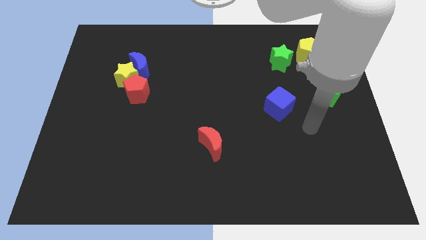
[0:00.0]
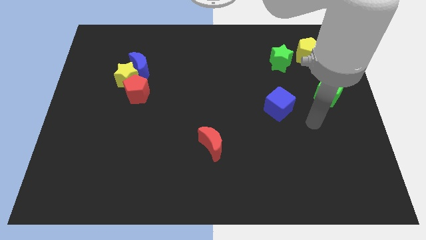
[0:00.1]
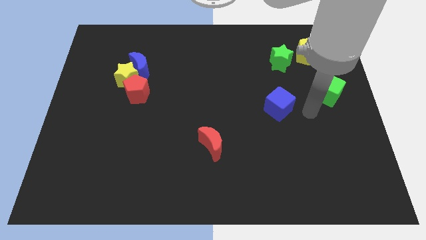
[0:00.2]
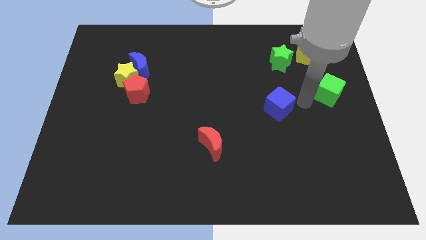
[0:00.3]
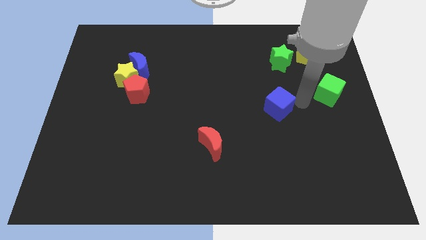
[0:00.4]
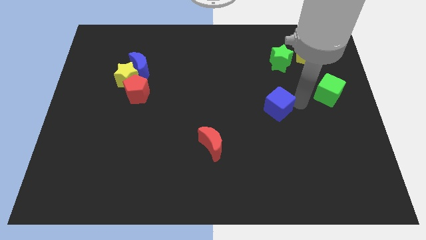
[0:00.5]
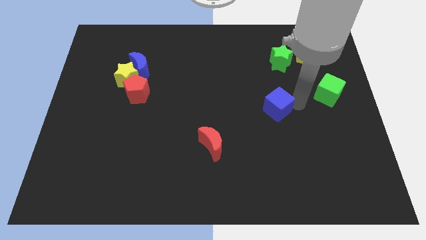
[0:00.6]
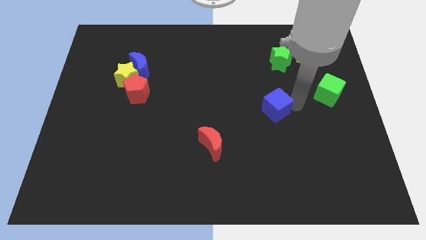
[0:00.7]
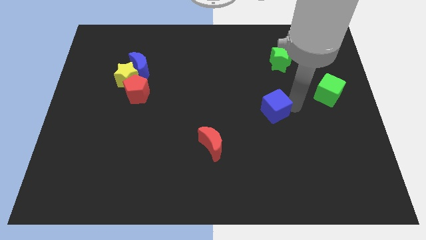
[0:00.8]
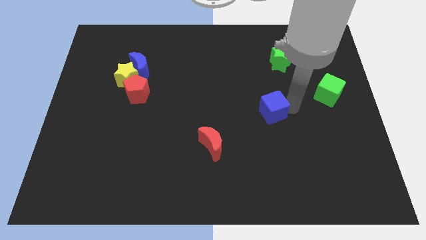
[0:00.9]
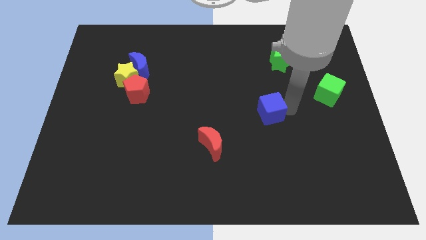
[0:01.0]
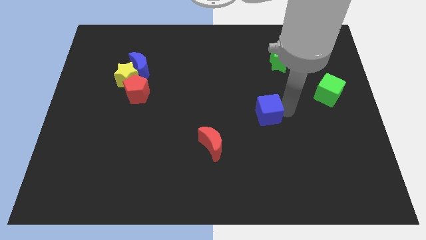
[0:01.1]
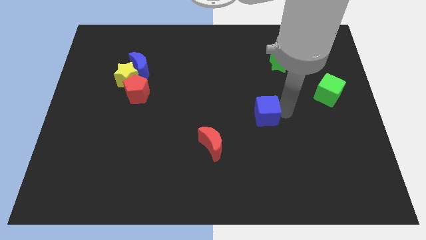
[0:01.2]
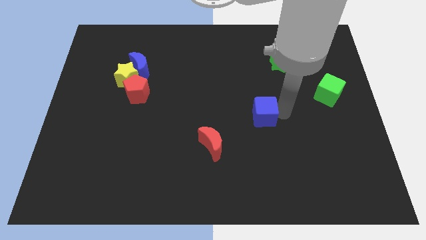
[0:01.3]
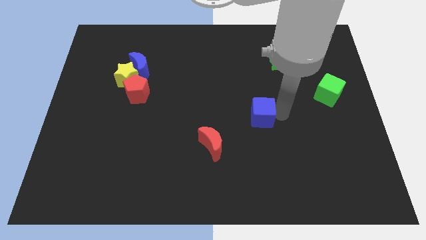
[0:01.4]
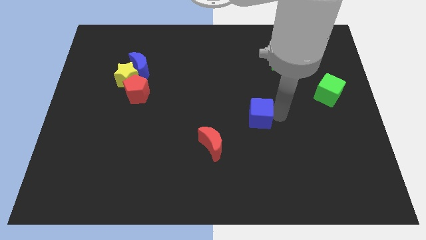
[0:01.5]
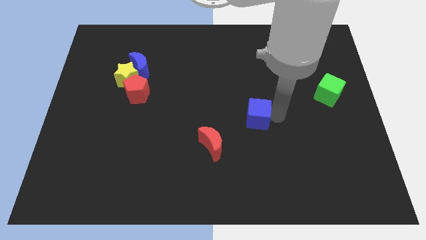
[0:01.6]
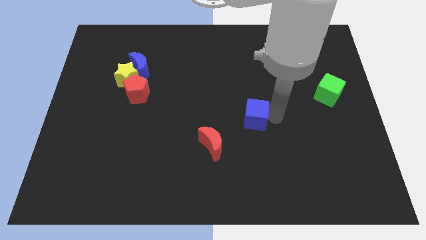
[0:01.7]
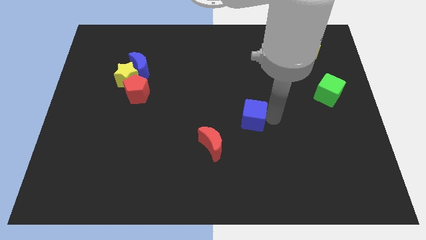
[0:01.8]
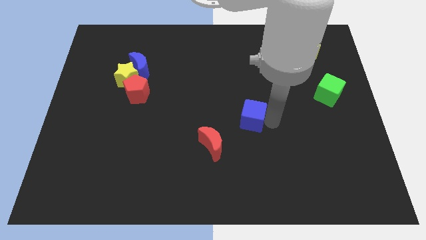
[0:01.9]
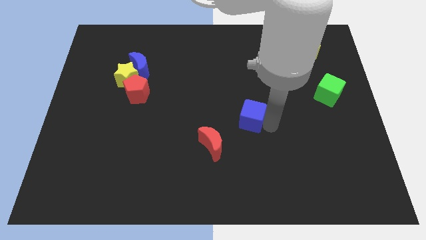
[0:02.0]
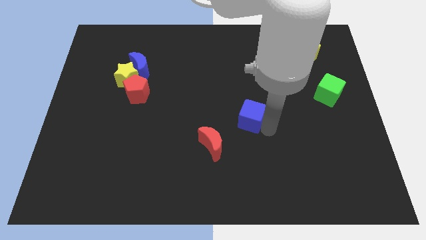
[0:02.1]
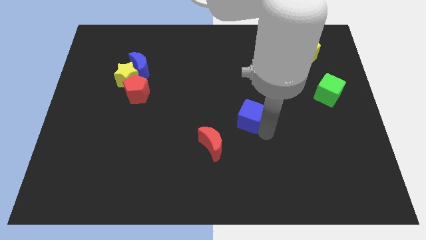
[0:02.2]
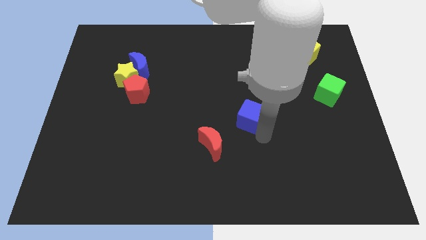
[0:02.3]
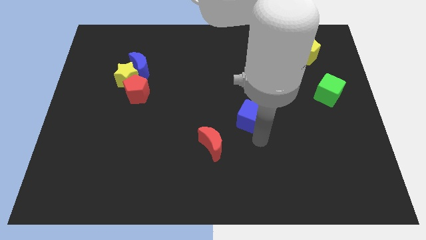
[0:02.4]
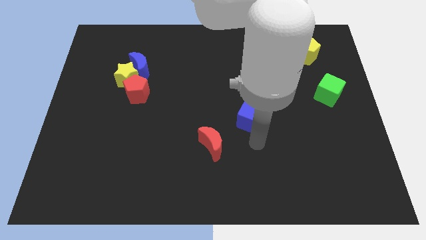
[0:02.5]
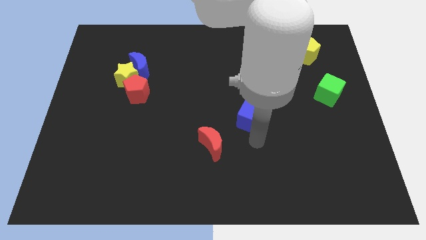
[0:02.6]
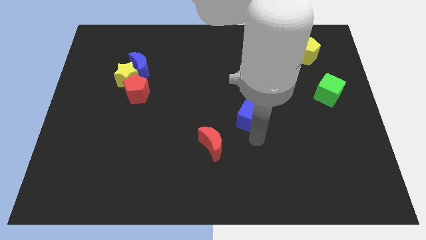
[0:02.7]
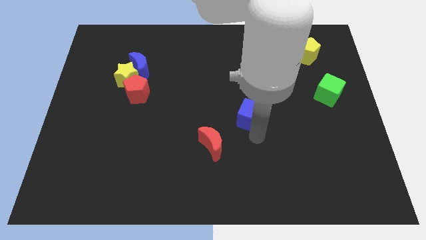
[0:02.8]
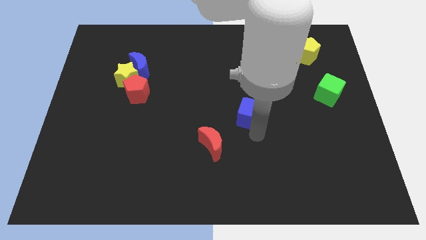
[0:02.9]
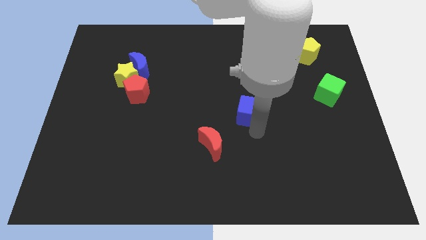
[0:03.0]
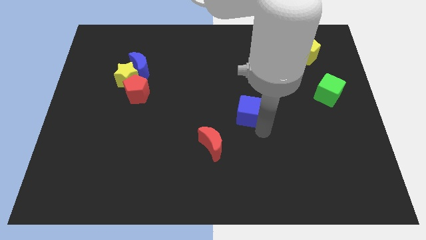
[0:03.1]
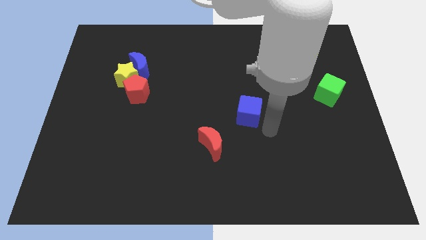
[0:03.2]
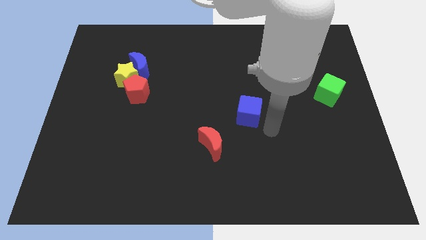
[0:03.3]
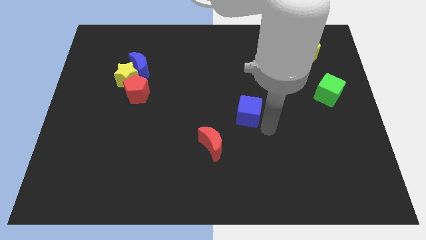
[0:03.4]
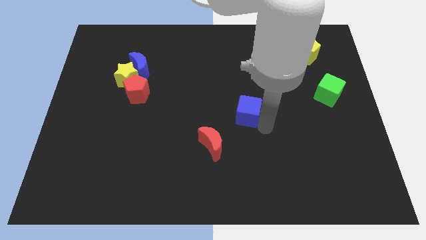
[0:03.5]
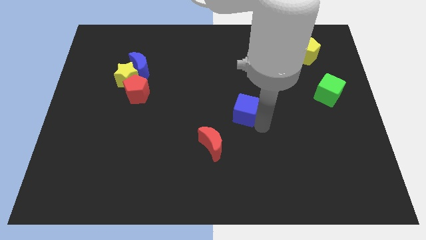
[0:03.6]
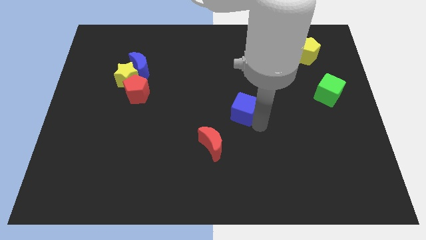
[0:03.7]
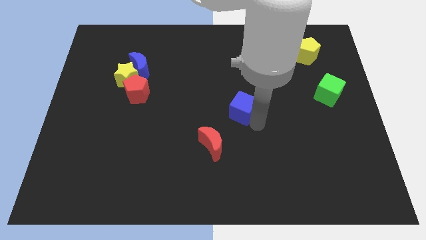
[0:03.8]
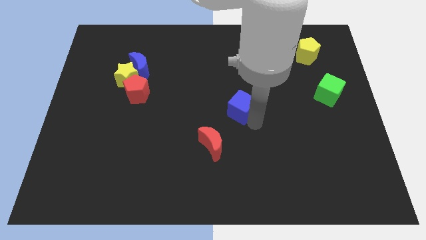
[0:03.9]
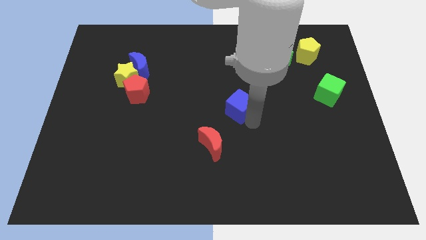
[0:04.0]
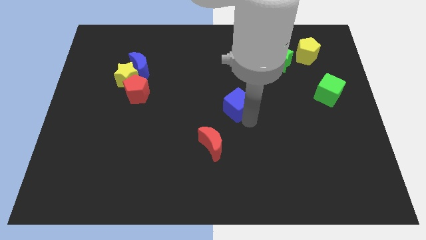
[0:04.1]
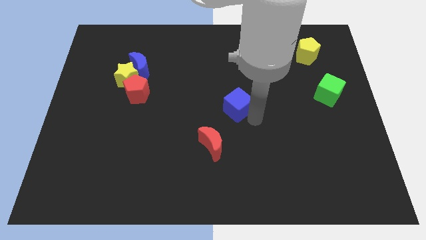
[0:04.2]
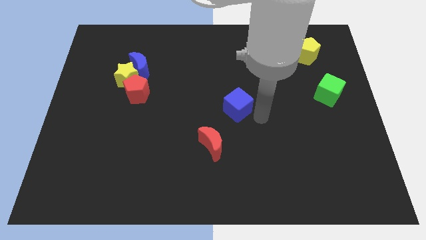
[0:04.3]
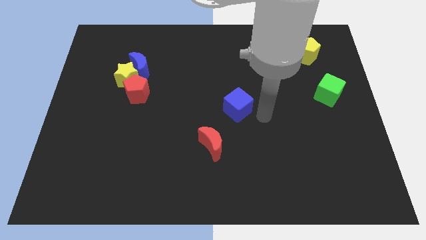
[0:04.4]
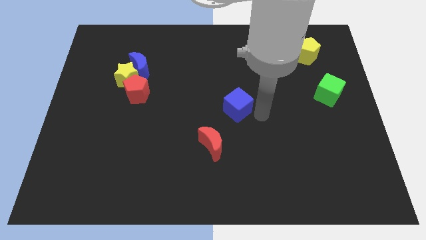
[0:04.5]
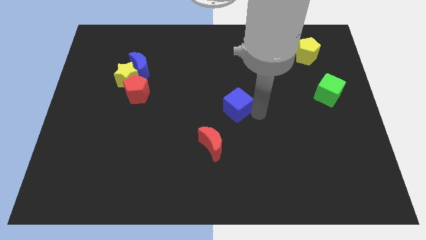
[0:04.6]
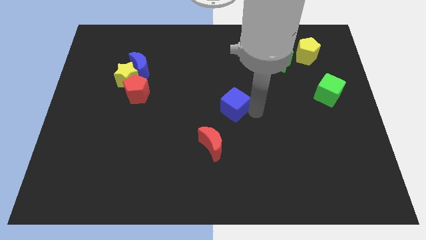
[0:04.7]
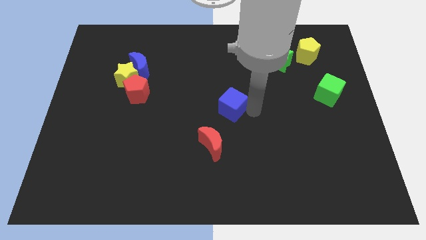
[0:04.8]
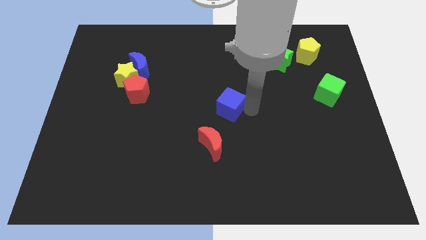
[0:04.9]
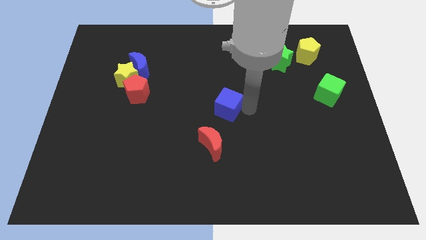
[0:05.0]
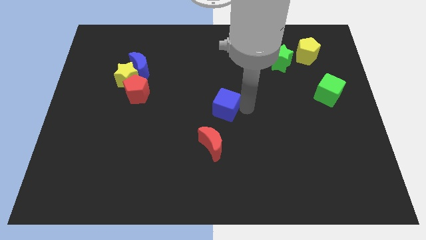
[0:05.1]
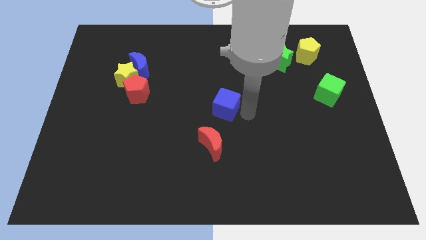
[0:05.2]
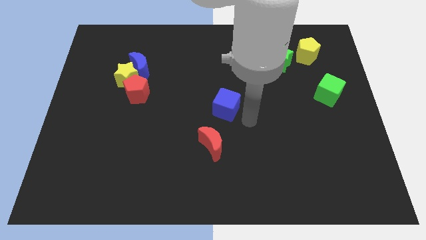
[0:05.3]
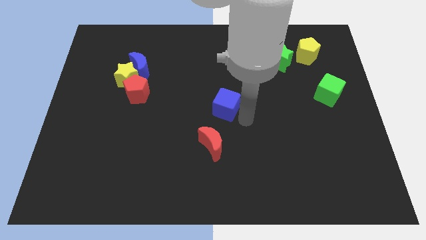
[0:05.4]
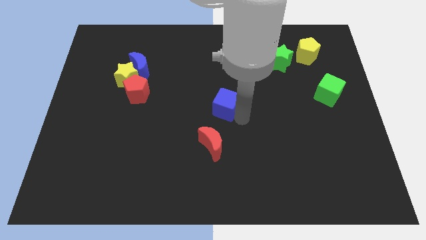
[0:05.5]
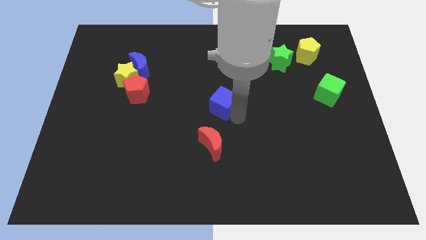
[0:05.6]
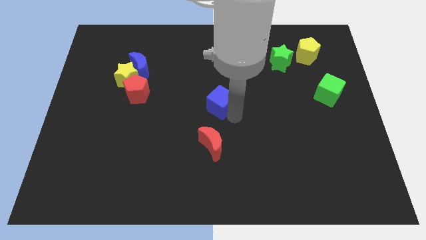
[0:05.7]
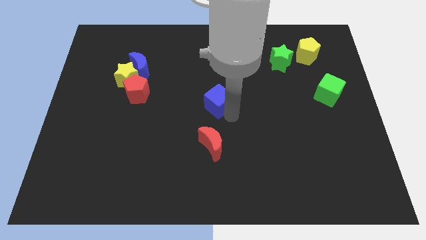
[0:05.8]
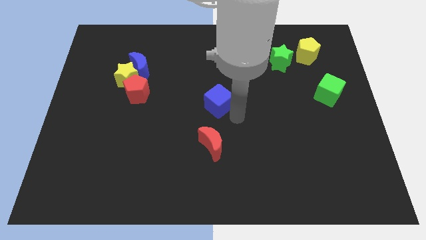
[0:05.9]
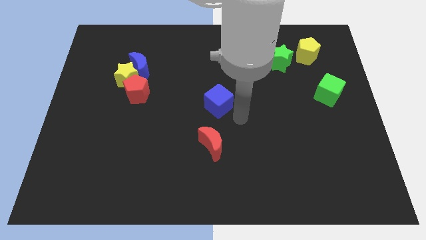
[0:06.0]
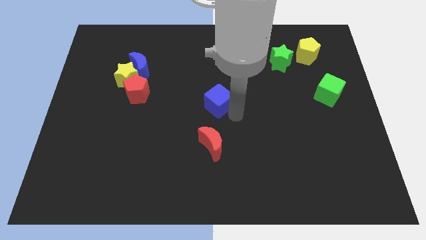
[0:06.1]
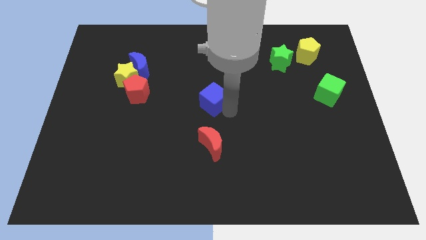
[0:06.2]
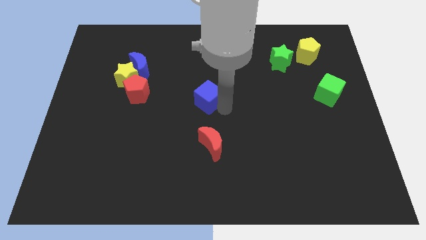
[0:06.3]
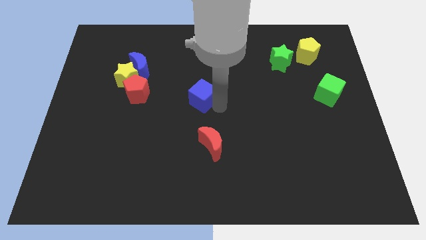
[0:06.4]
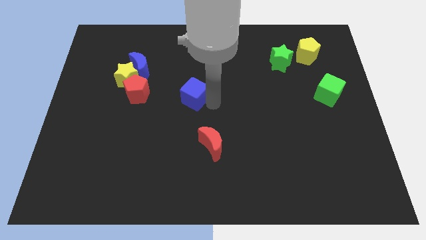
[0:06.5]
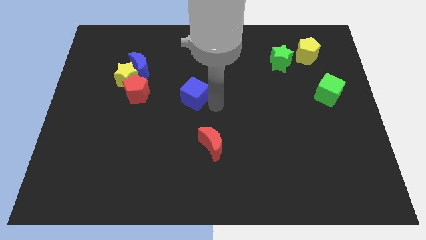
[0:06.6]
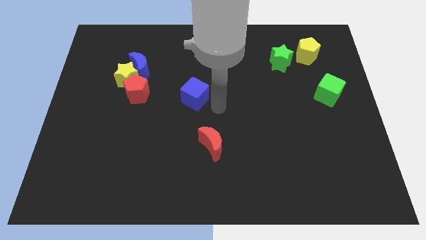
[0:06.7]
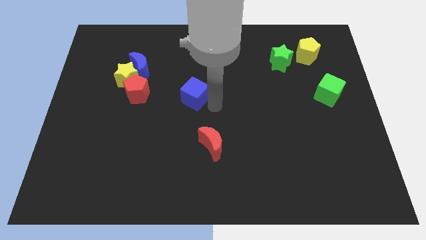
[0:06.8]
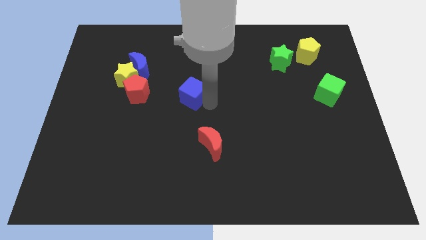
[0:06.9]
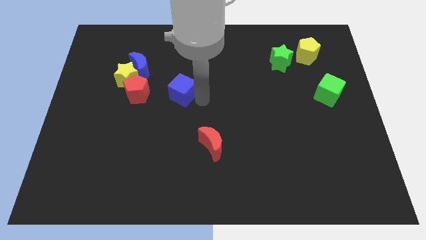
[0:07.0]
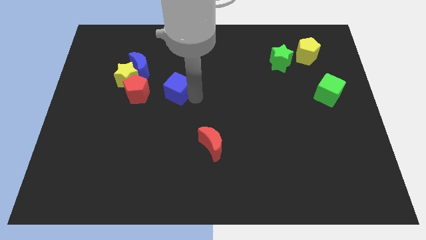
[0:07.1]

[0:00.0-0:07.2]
push the blue cube diagonally down and to the right of the blue moon

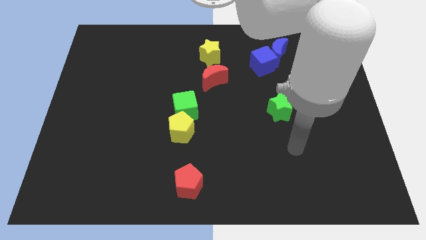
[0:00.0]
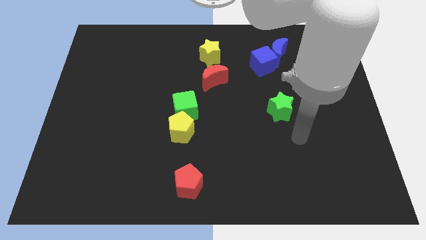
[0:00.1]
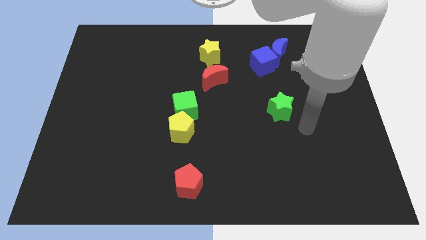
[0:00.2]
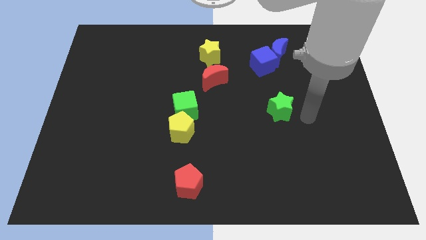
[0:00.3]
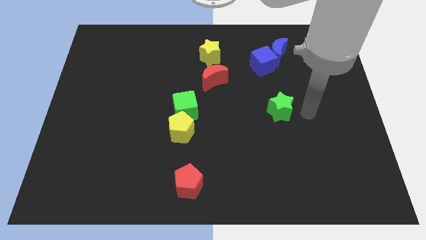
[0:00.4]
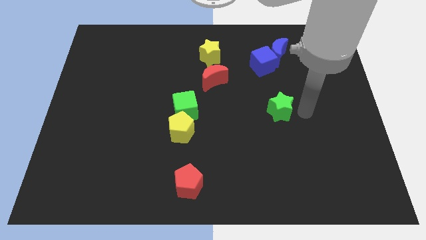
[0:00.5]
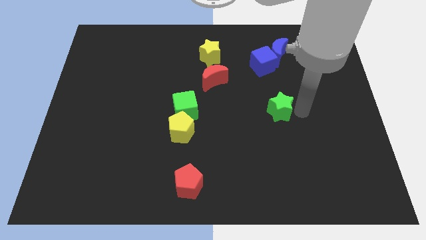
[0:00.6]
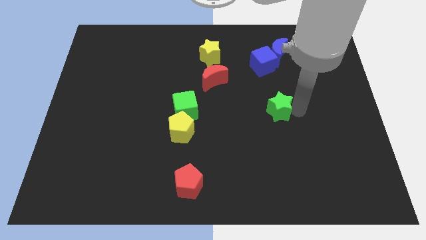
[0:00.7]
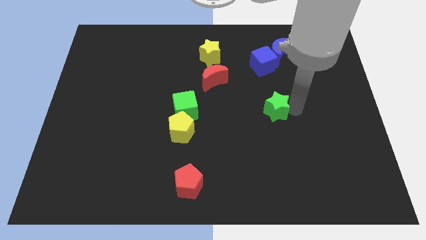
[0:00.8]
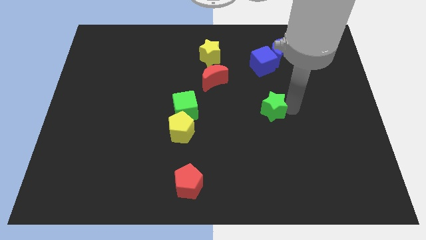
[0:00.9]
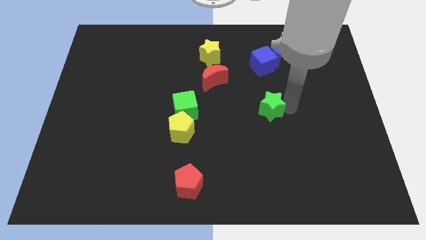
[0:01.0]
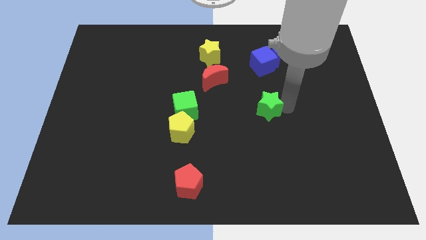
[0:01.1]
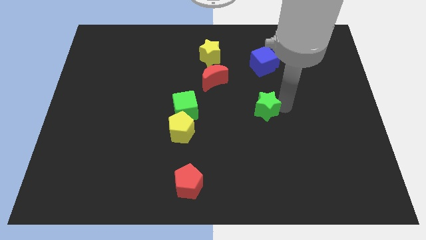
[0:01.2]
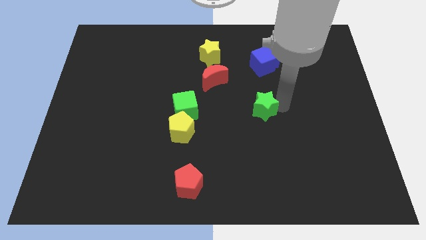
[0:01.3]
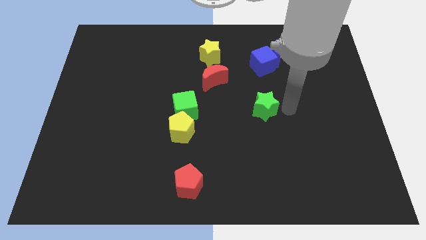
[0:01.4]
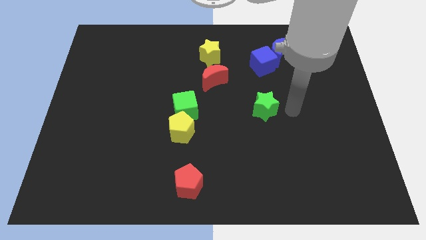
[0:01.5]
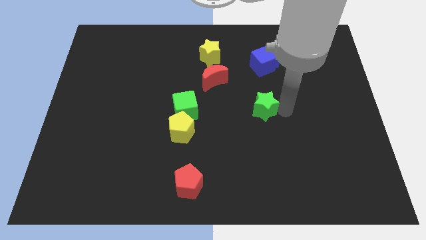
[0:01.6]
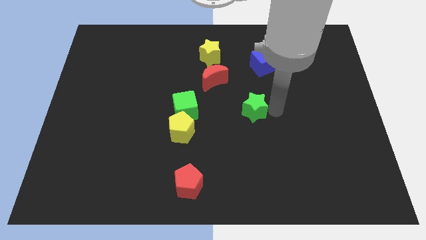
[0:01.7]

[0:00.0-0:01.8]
put the green star right of the green cube
